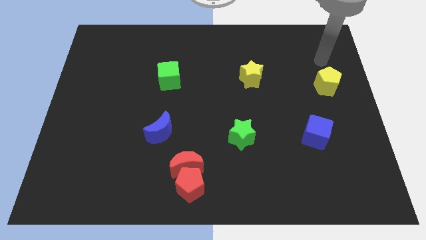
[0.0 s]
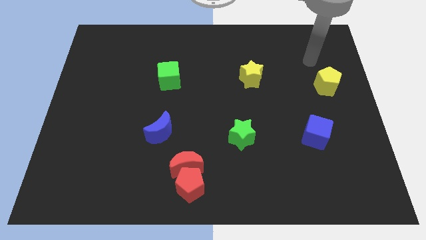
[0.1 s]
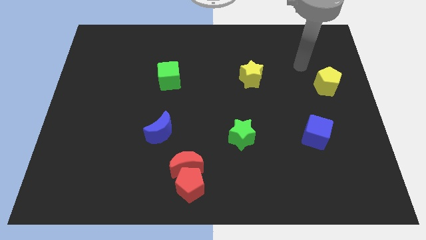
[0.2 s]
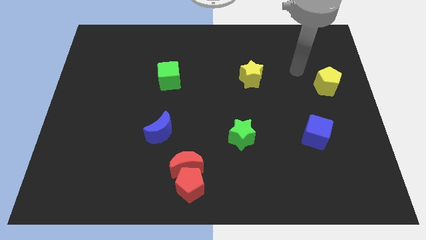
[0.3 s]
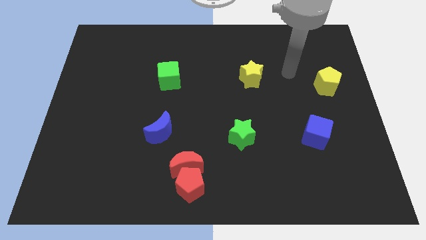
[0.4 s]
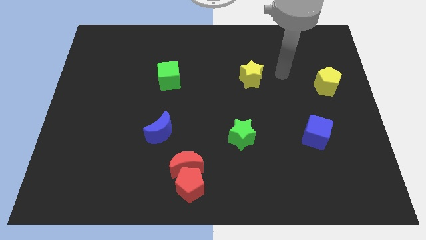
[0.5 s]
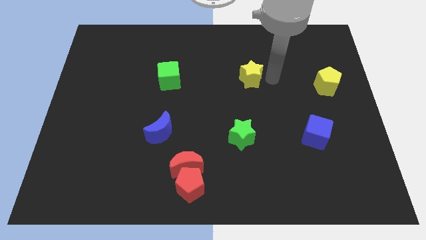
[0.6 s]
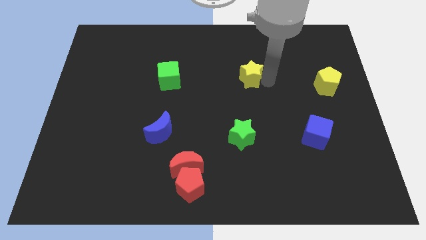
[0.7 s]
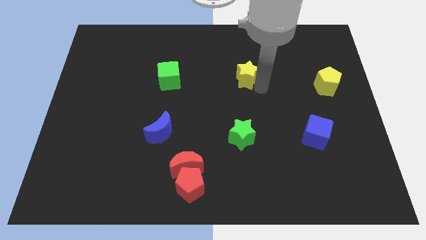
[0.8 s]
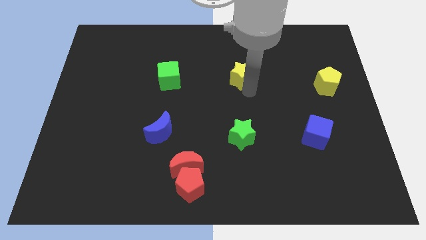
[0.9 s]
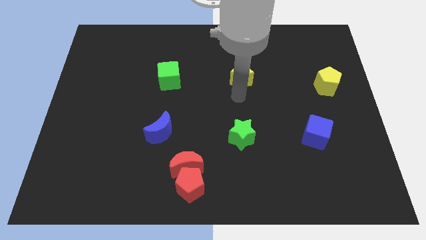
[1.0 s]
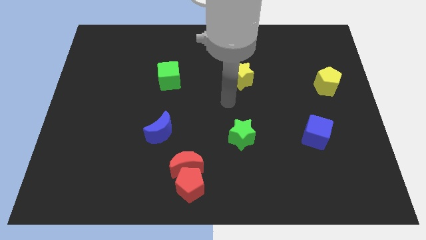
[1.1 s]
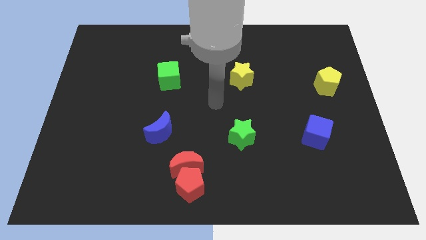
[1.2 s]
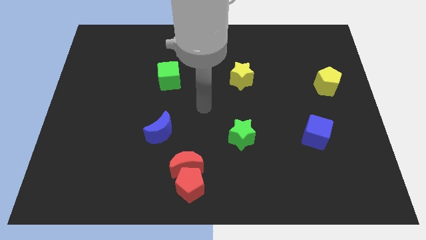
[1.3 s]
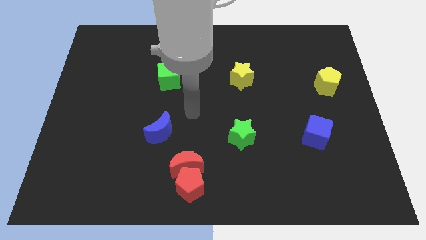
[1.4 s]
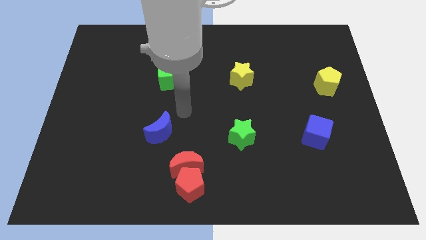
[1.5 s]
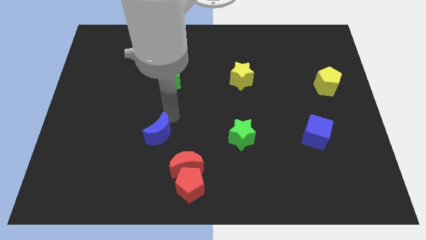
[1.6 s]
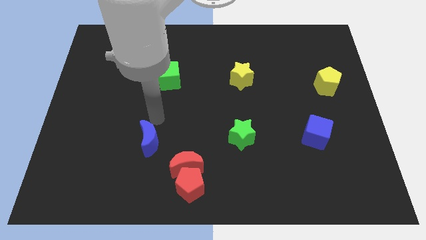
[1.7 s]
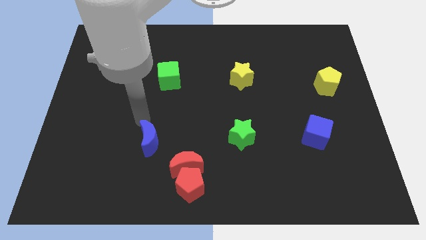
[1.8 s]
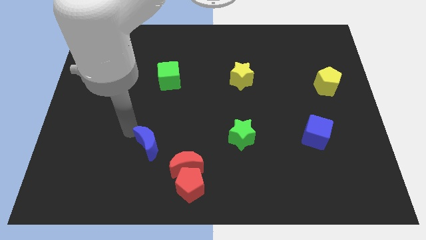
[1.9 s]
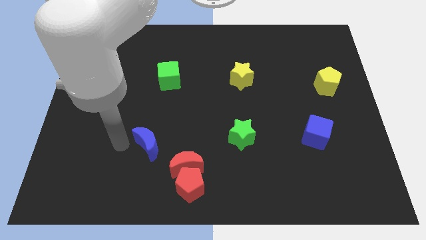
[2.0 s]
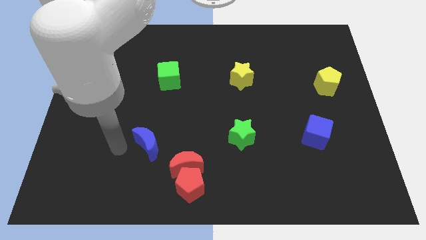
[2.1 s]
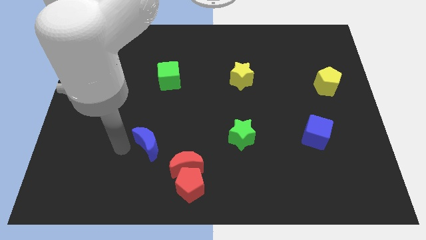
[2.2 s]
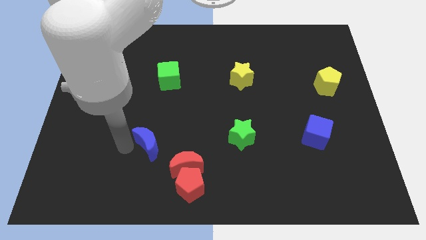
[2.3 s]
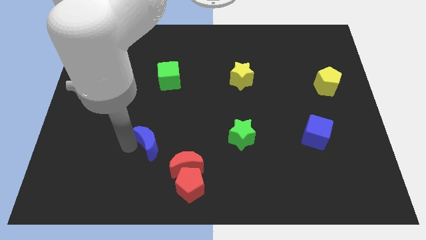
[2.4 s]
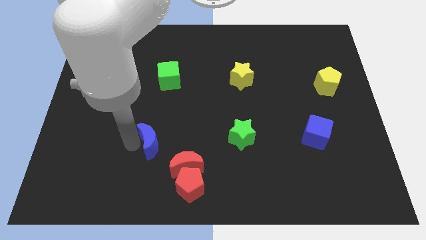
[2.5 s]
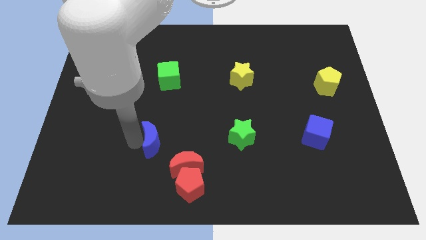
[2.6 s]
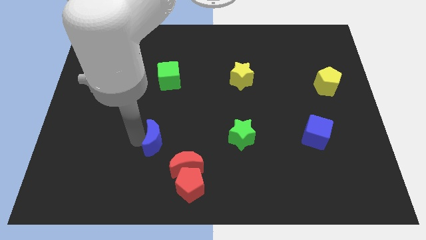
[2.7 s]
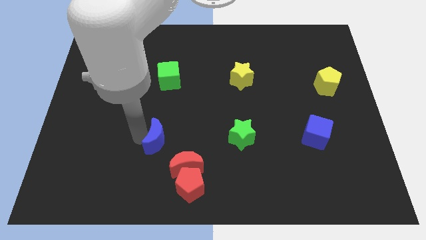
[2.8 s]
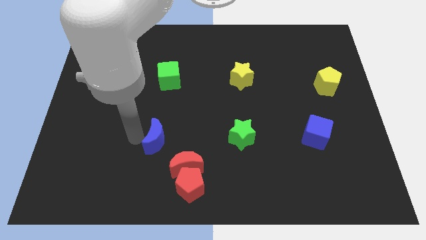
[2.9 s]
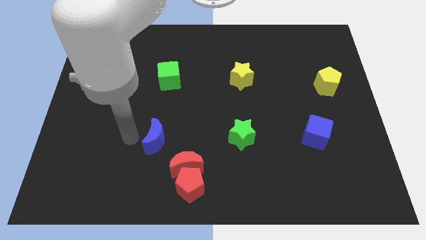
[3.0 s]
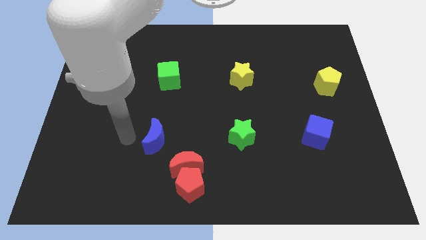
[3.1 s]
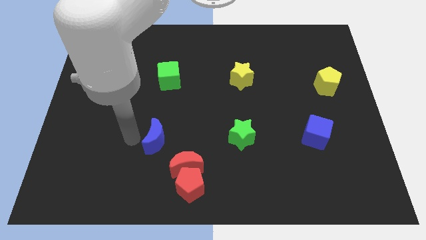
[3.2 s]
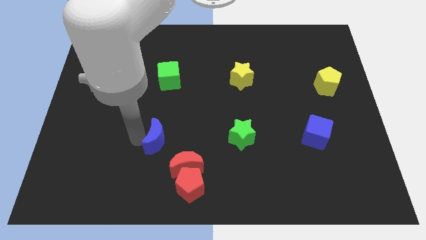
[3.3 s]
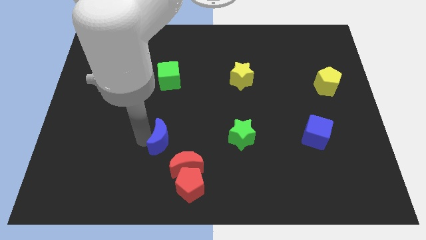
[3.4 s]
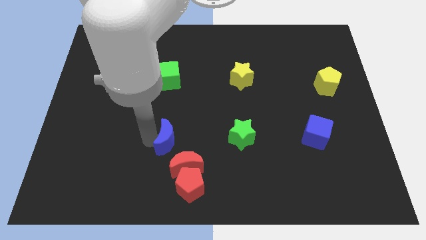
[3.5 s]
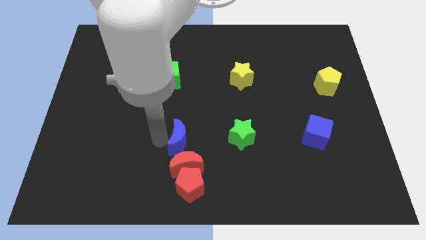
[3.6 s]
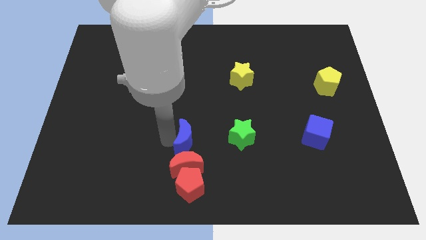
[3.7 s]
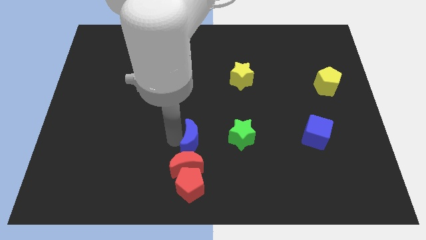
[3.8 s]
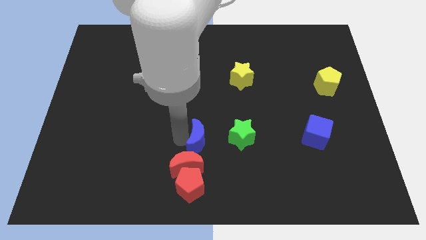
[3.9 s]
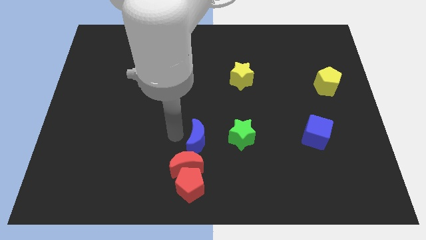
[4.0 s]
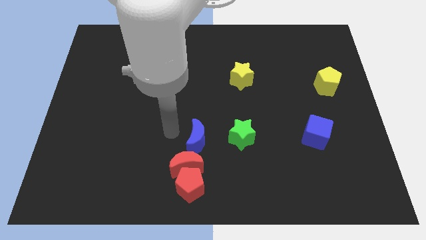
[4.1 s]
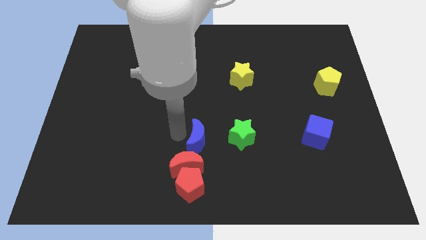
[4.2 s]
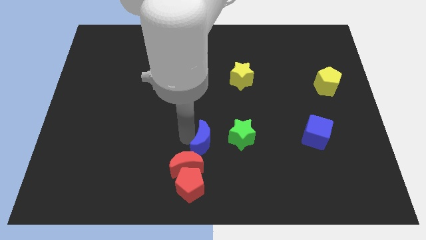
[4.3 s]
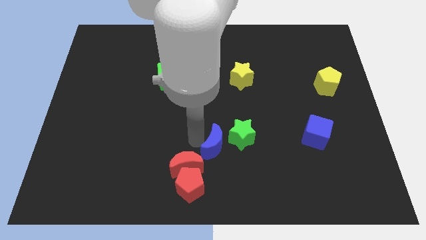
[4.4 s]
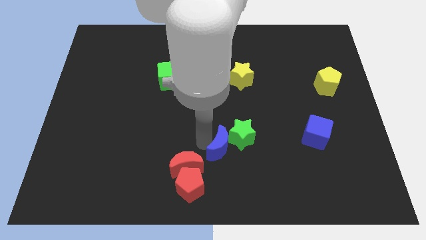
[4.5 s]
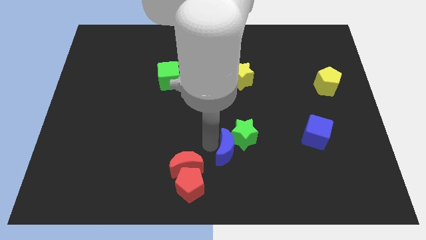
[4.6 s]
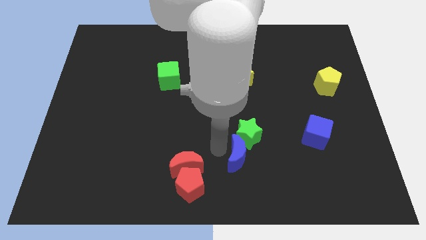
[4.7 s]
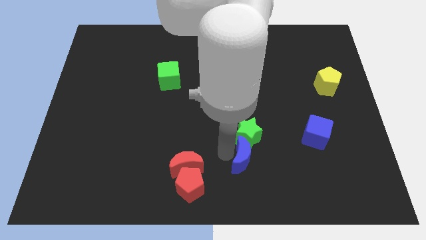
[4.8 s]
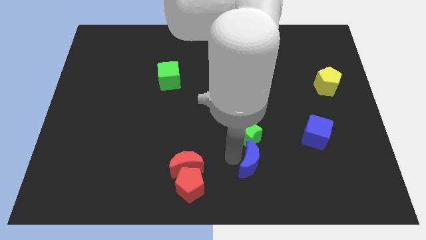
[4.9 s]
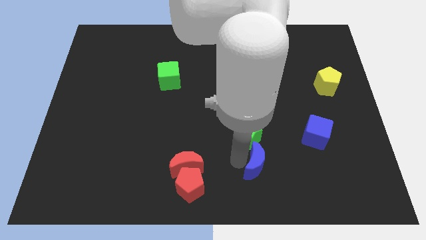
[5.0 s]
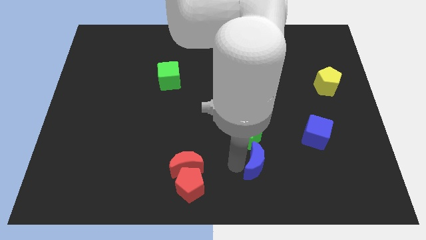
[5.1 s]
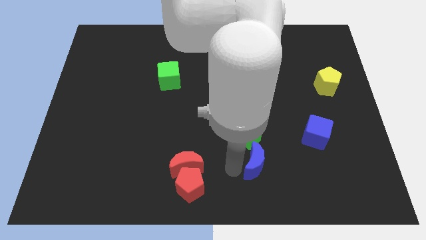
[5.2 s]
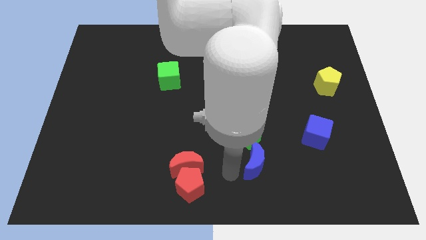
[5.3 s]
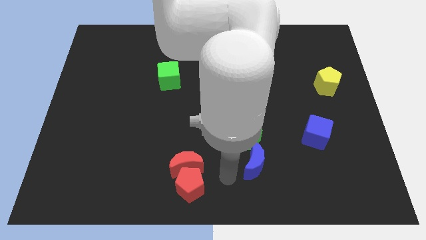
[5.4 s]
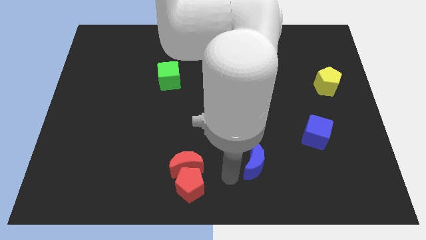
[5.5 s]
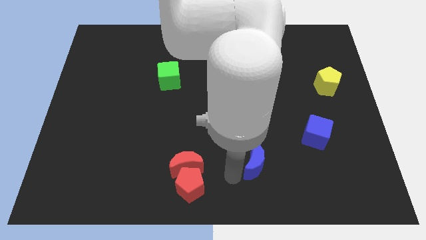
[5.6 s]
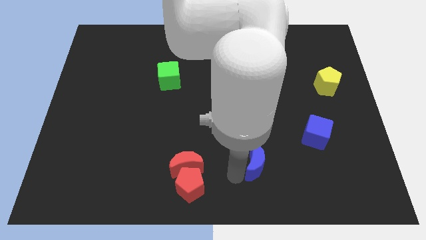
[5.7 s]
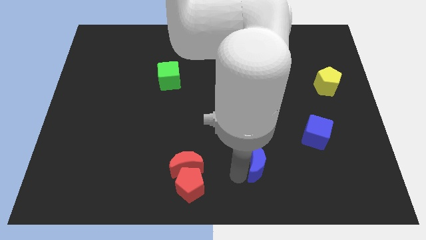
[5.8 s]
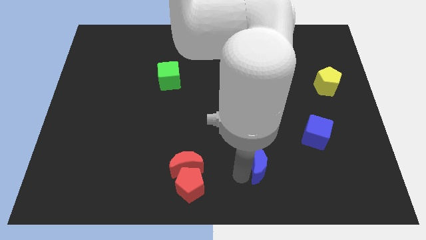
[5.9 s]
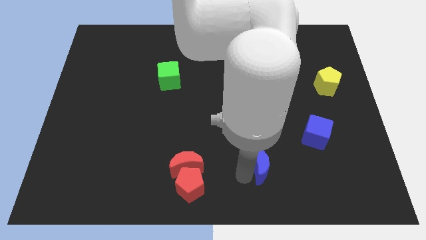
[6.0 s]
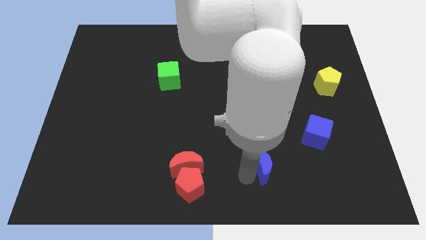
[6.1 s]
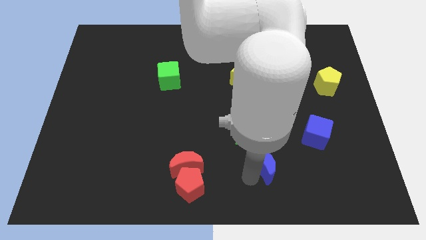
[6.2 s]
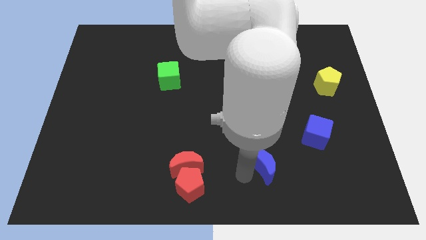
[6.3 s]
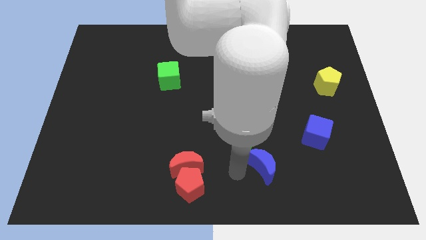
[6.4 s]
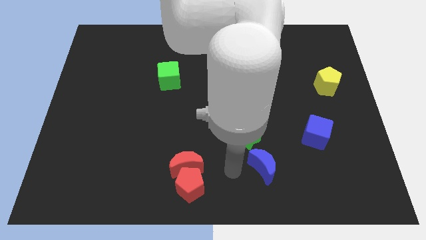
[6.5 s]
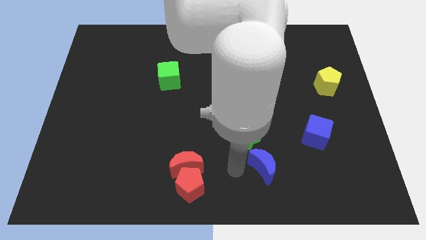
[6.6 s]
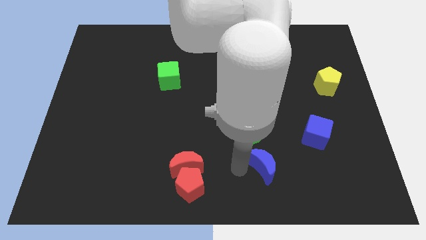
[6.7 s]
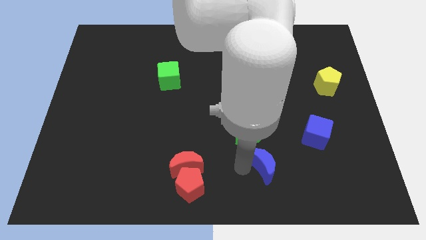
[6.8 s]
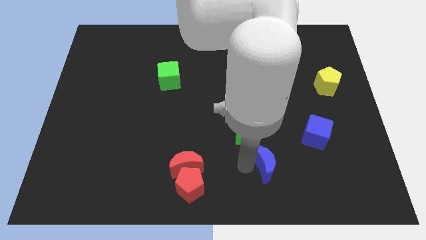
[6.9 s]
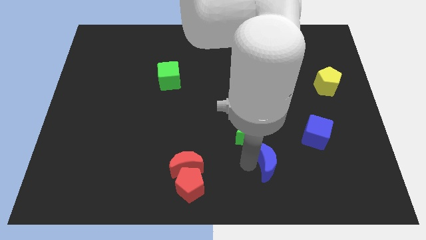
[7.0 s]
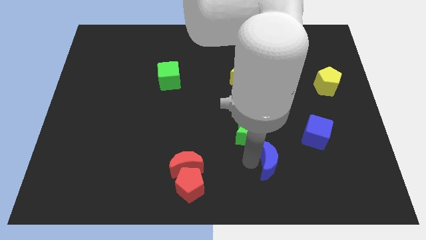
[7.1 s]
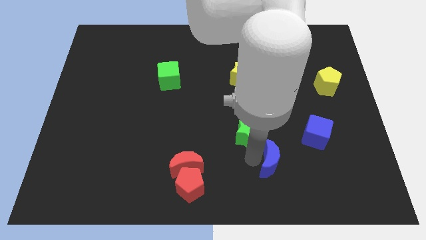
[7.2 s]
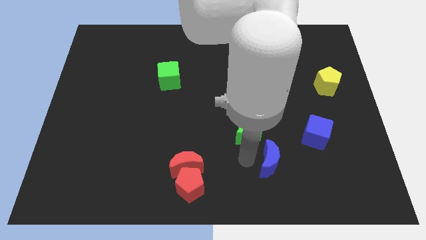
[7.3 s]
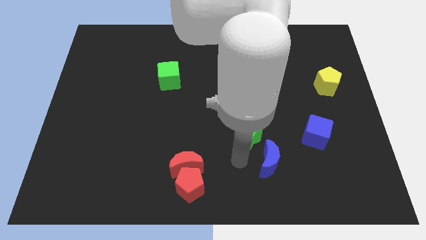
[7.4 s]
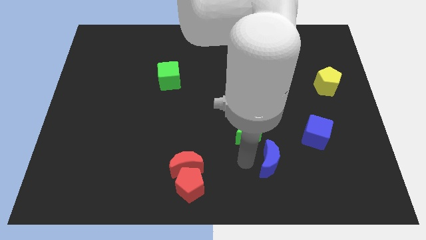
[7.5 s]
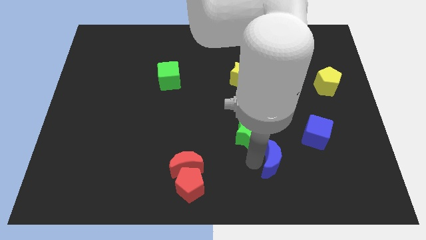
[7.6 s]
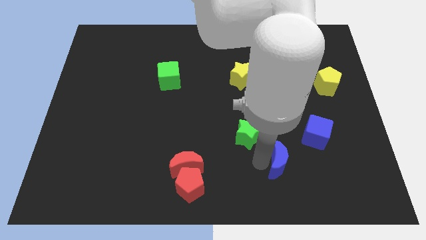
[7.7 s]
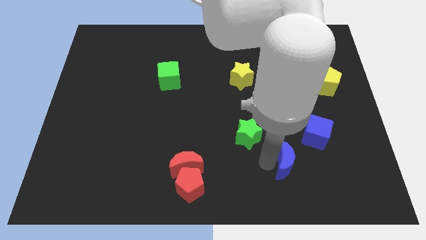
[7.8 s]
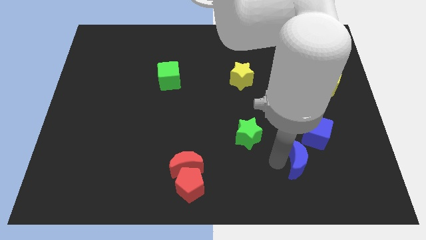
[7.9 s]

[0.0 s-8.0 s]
push the blue moon below the blue cube
